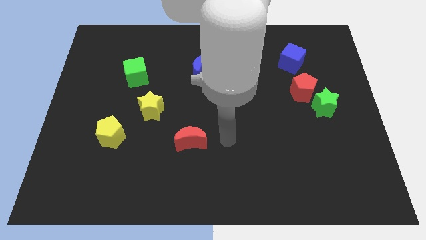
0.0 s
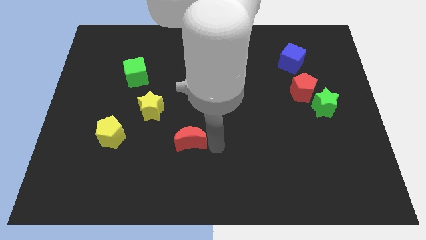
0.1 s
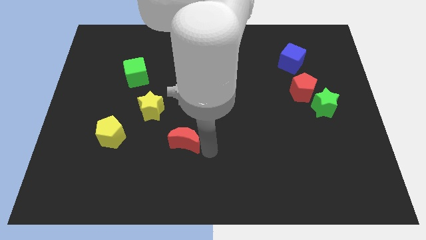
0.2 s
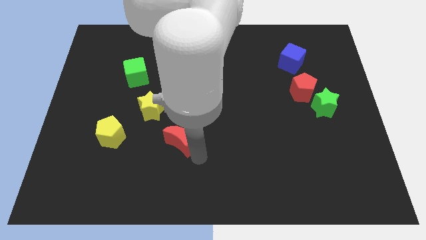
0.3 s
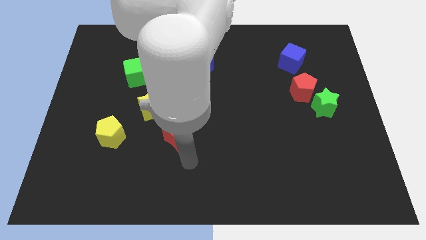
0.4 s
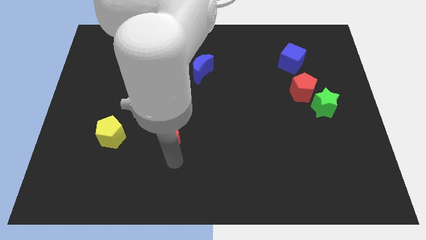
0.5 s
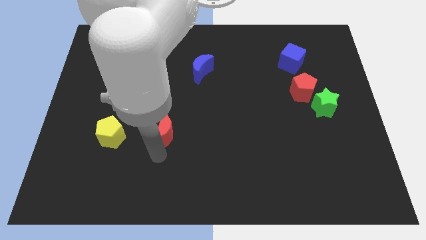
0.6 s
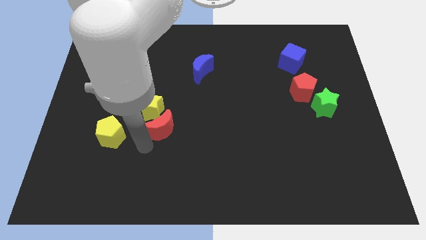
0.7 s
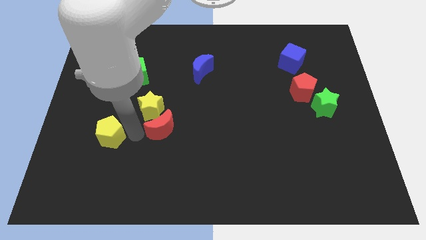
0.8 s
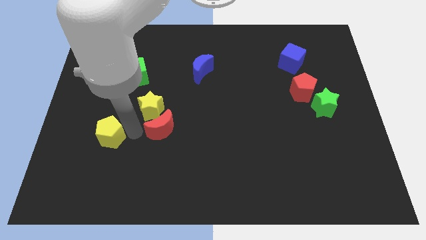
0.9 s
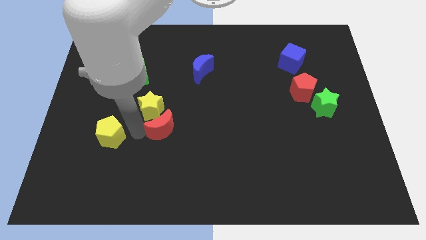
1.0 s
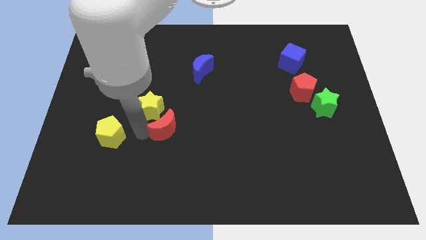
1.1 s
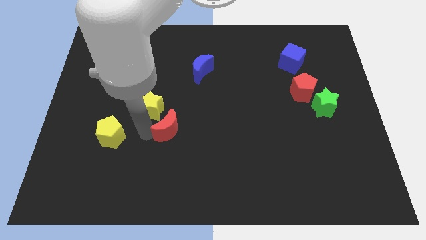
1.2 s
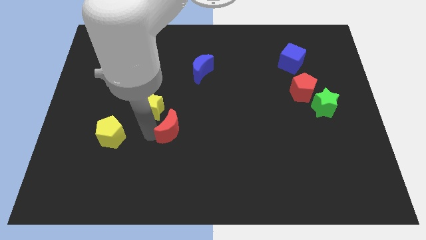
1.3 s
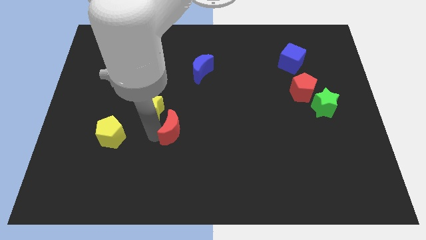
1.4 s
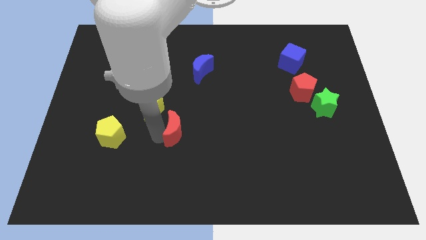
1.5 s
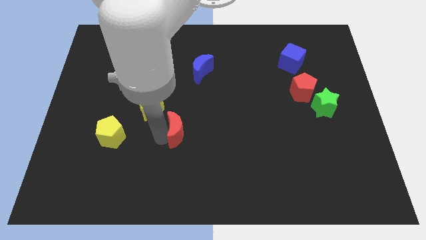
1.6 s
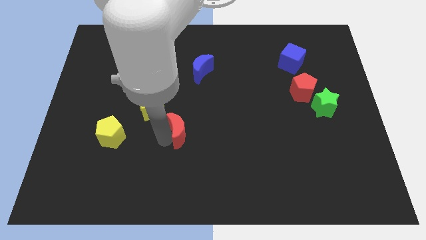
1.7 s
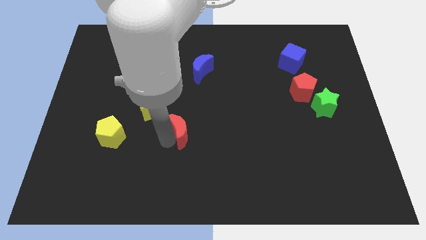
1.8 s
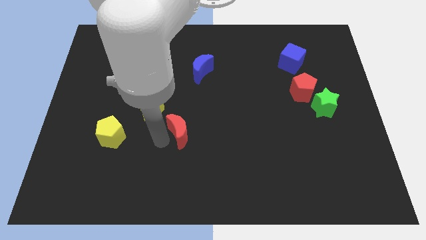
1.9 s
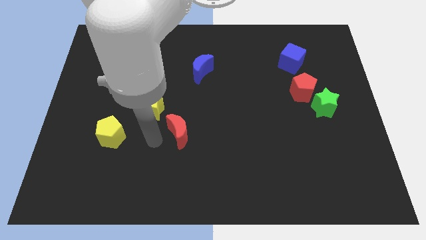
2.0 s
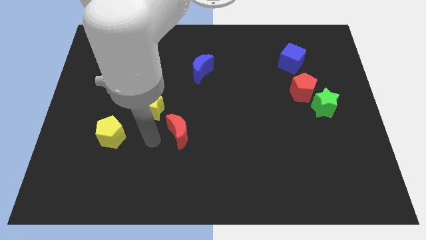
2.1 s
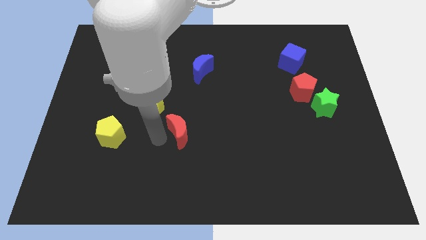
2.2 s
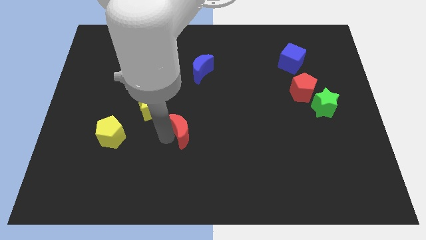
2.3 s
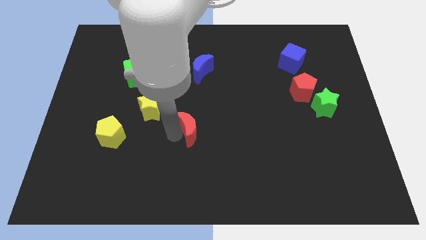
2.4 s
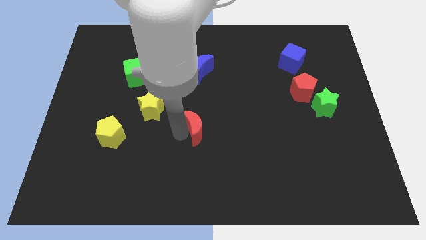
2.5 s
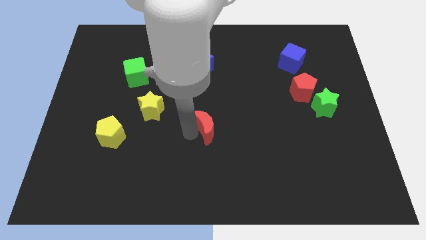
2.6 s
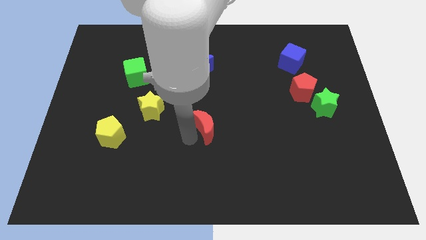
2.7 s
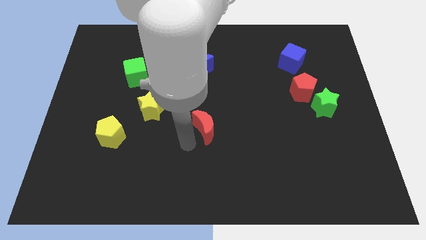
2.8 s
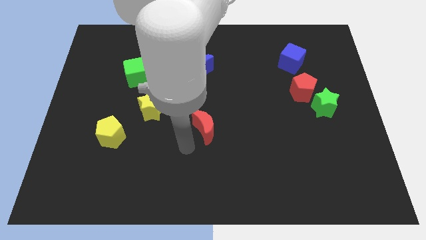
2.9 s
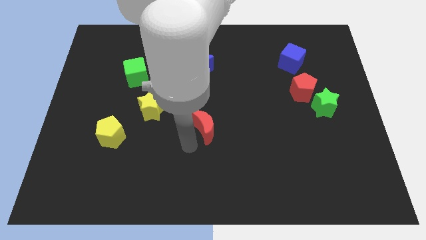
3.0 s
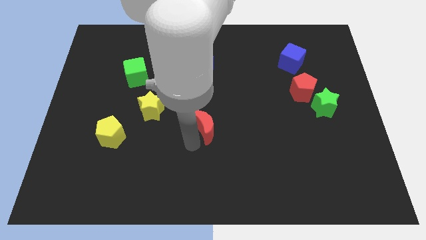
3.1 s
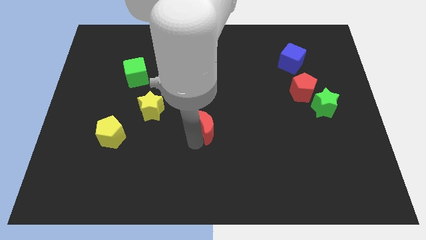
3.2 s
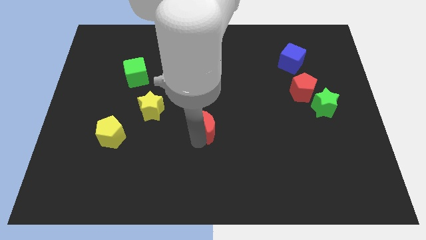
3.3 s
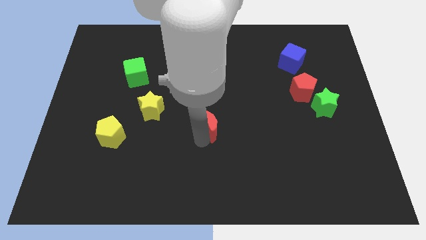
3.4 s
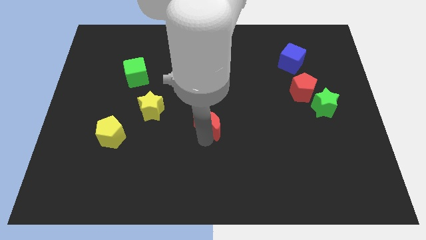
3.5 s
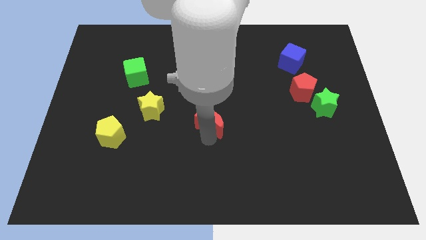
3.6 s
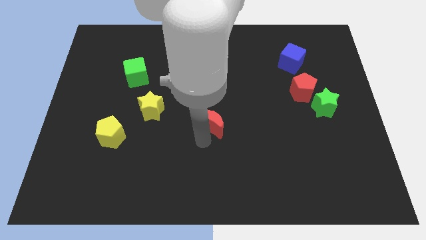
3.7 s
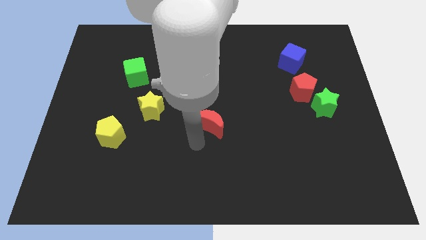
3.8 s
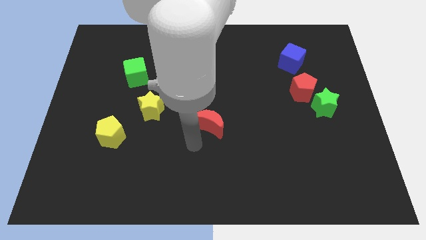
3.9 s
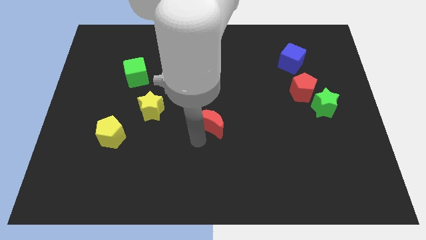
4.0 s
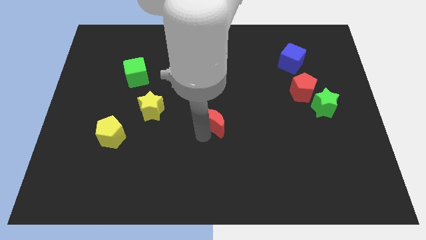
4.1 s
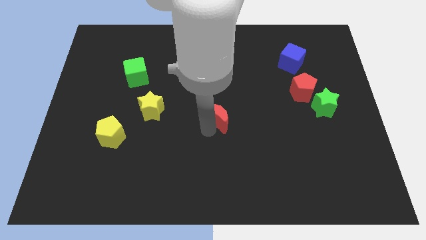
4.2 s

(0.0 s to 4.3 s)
slightly push the red moon upwards and to the right diagonally

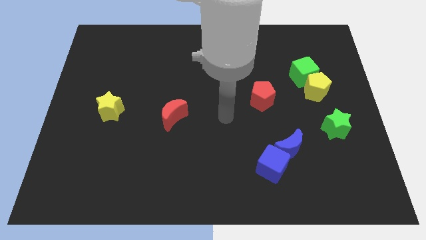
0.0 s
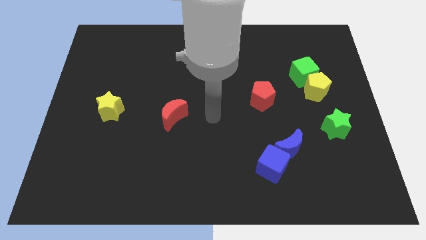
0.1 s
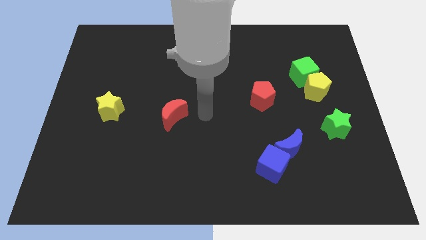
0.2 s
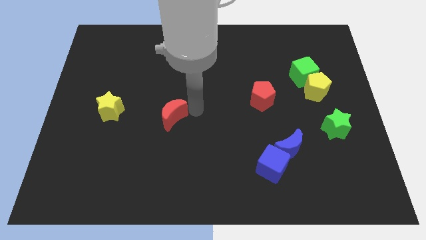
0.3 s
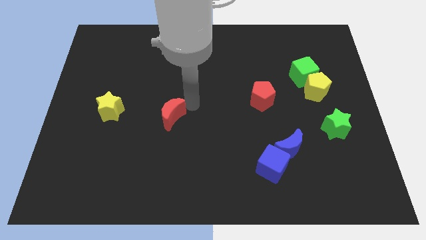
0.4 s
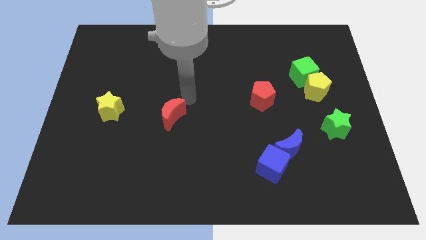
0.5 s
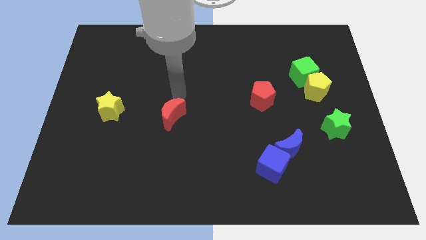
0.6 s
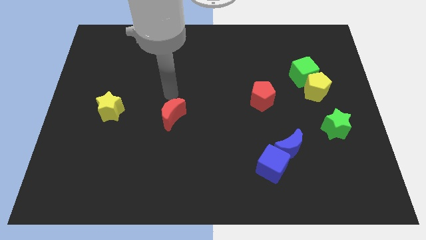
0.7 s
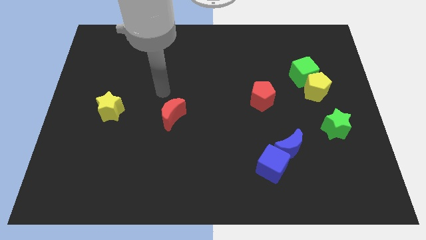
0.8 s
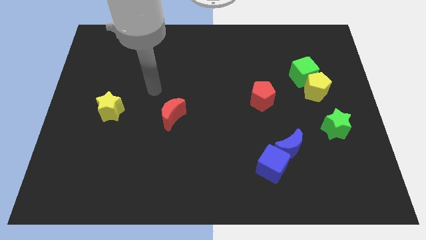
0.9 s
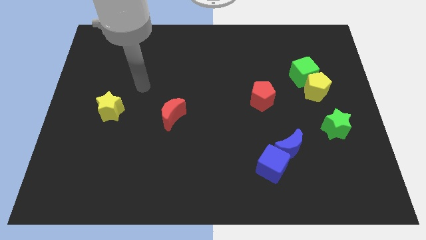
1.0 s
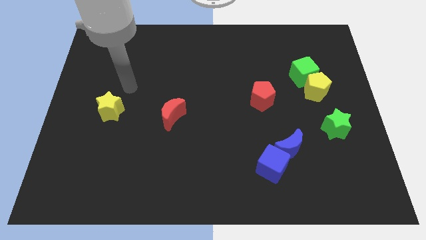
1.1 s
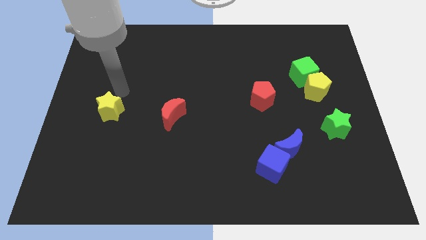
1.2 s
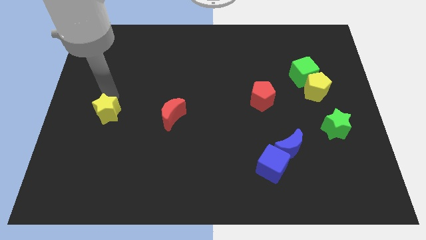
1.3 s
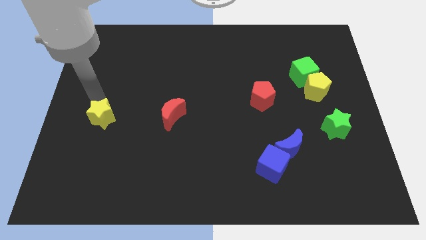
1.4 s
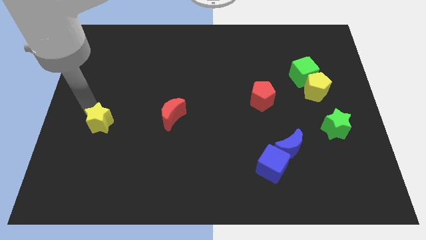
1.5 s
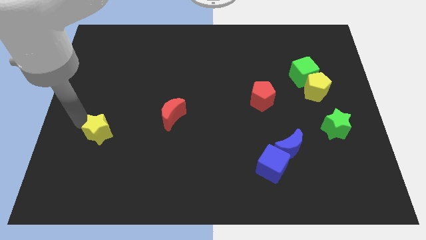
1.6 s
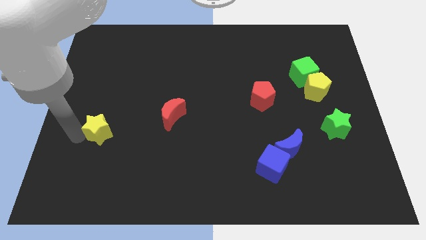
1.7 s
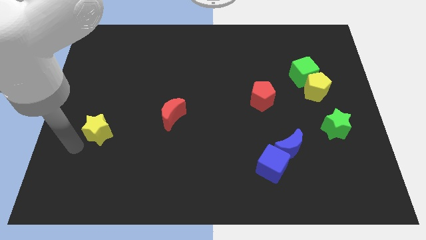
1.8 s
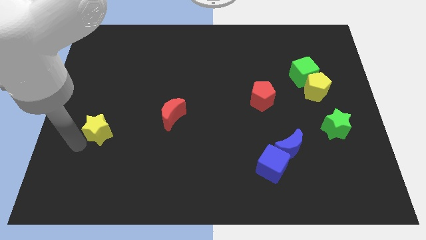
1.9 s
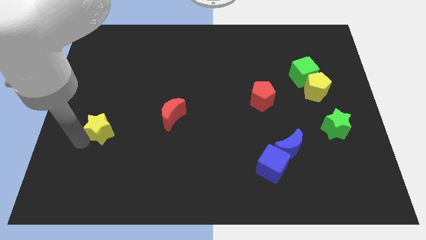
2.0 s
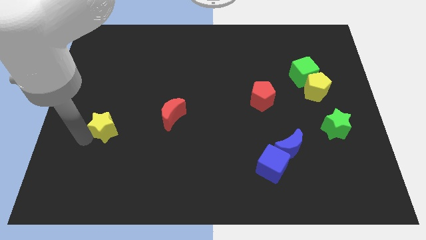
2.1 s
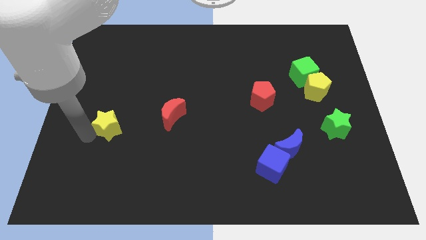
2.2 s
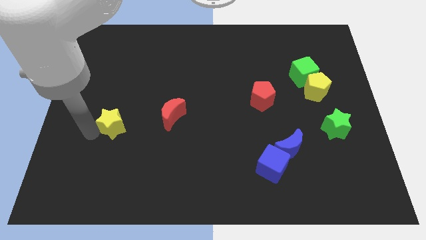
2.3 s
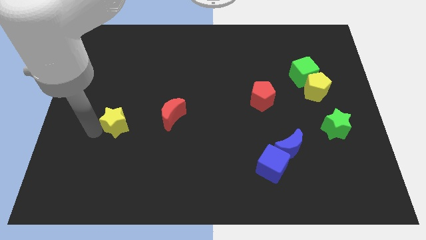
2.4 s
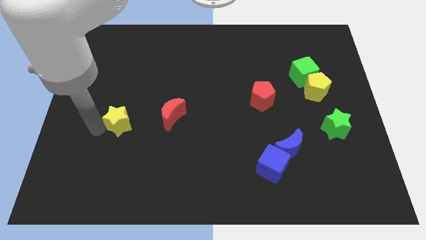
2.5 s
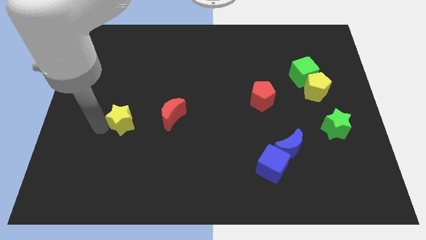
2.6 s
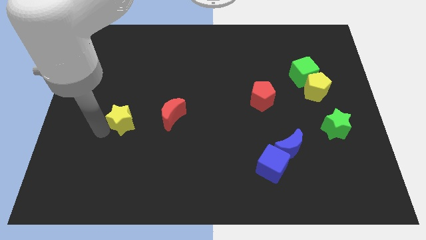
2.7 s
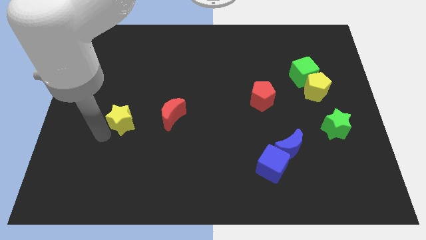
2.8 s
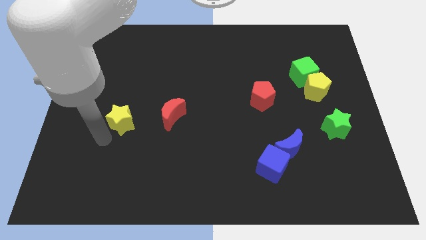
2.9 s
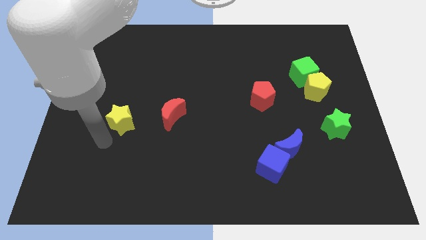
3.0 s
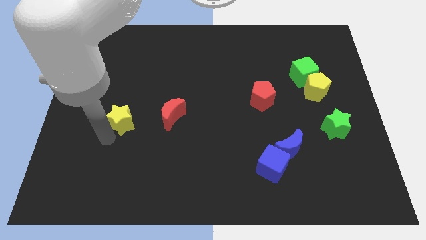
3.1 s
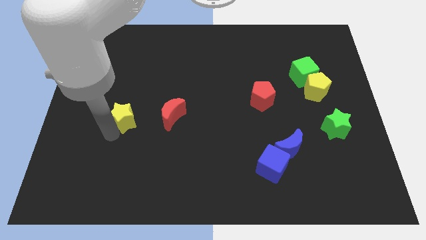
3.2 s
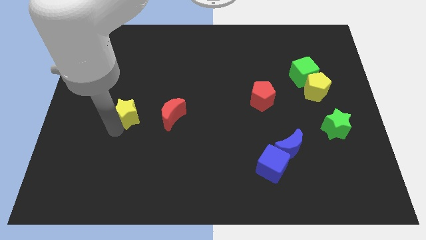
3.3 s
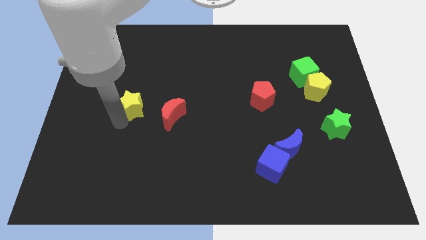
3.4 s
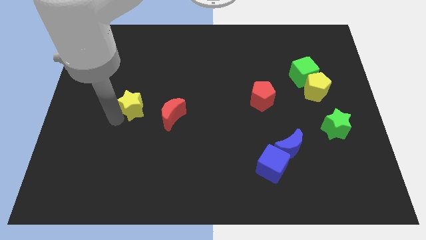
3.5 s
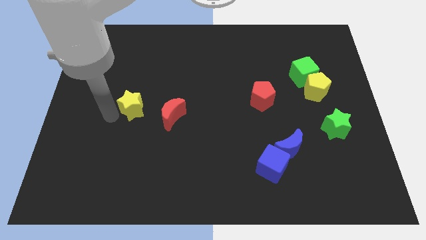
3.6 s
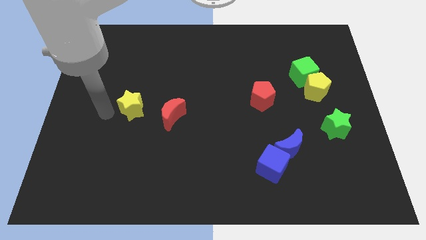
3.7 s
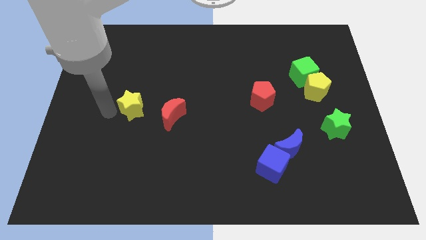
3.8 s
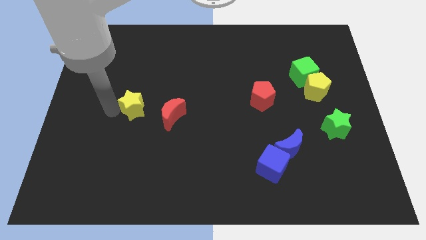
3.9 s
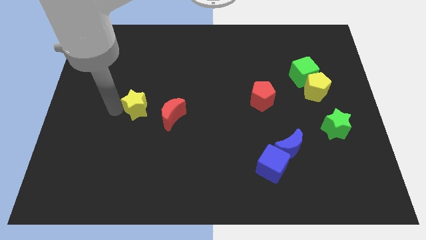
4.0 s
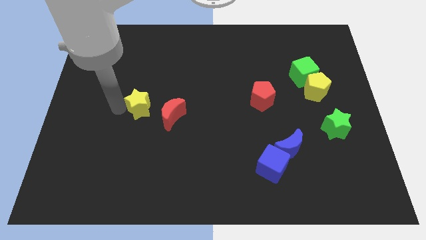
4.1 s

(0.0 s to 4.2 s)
push the yellow star a bit to the right
